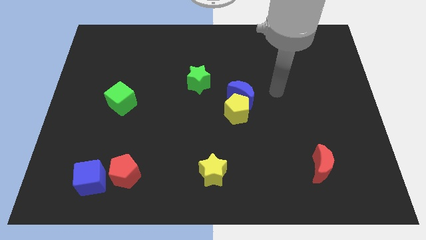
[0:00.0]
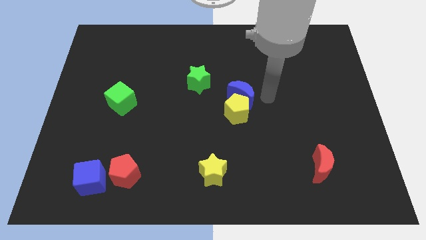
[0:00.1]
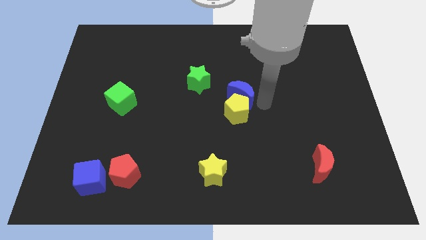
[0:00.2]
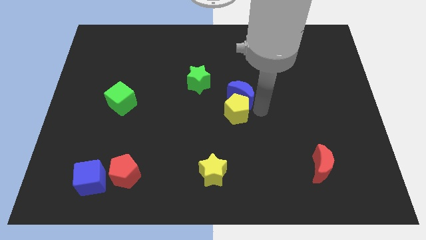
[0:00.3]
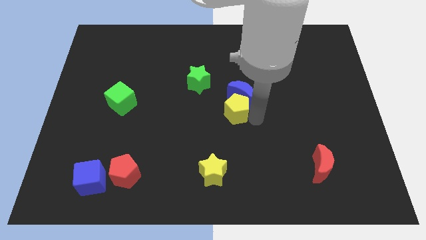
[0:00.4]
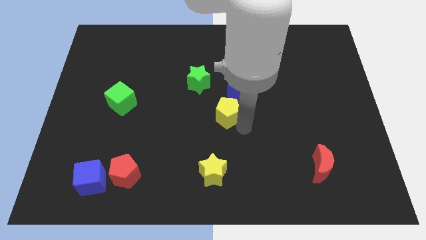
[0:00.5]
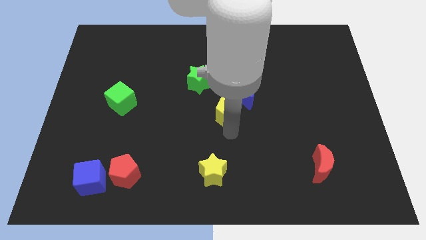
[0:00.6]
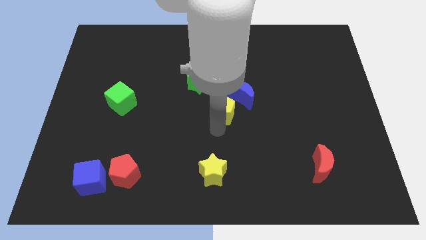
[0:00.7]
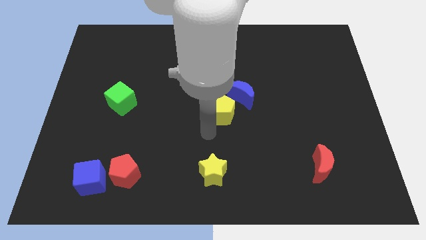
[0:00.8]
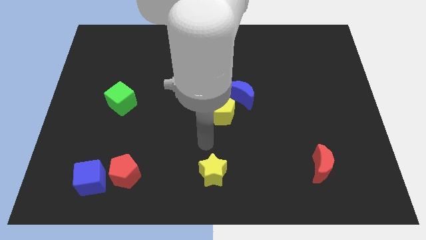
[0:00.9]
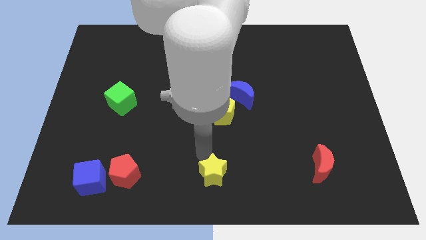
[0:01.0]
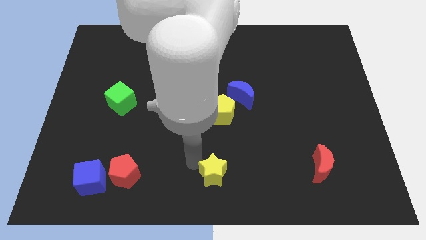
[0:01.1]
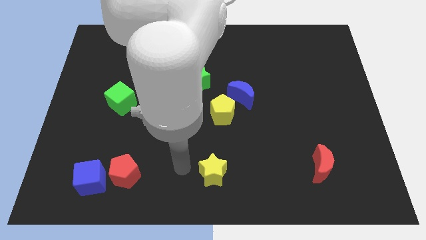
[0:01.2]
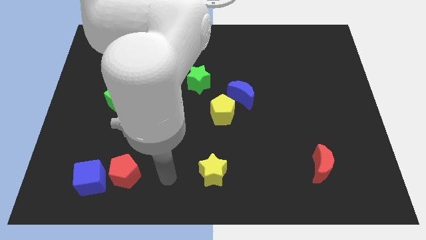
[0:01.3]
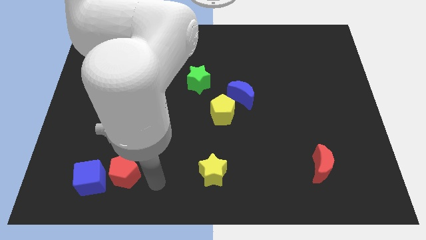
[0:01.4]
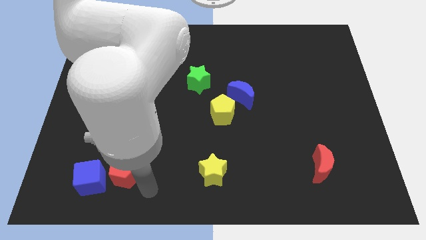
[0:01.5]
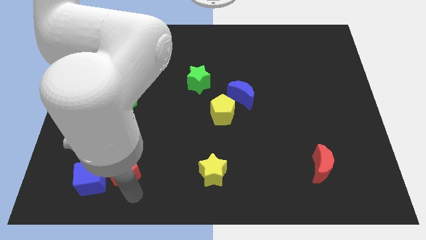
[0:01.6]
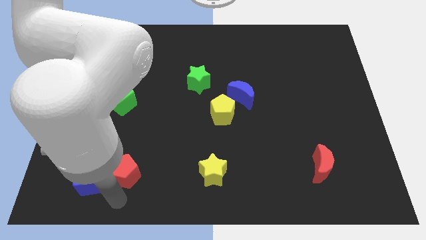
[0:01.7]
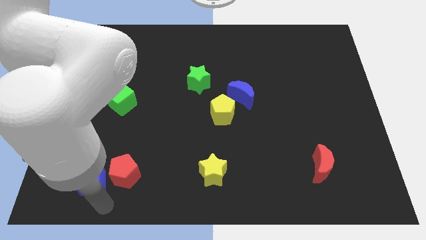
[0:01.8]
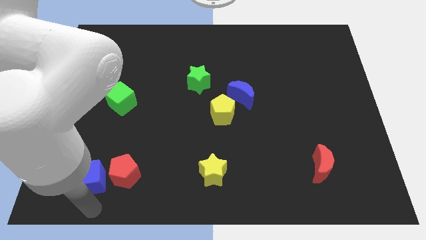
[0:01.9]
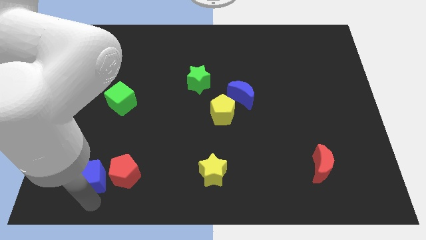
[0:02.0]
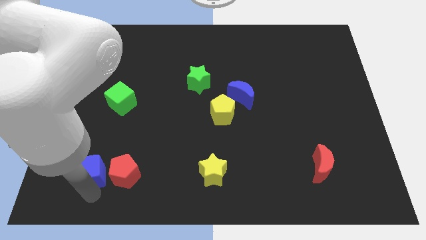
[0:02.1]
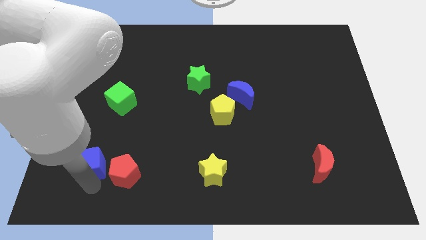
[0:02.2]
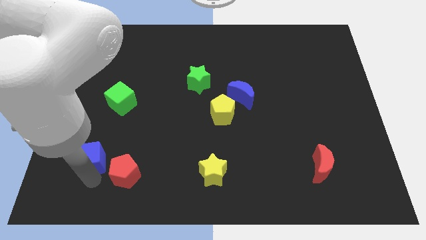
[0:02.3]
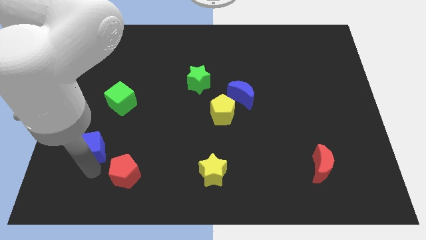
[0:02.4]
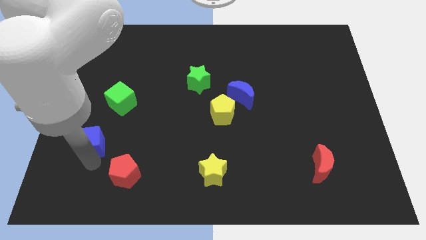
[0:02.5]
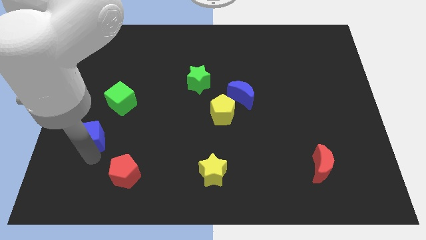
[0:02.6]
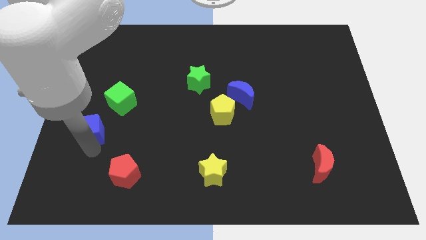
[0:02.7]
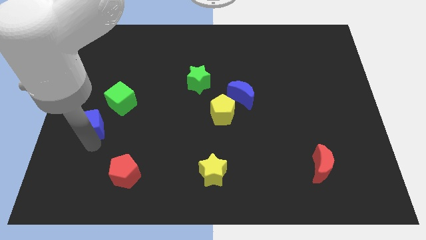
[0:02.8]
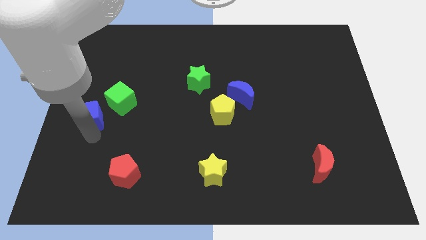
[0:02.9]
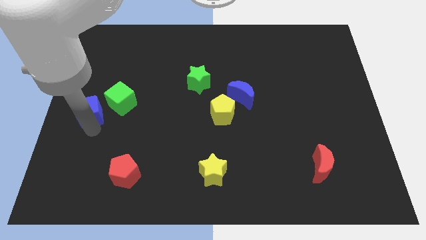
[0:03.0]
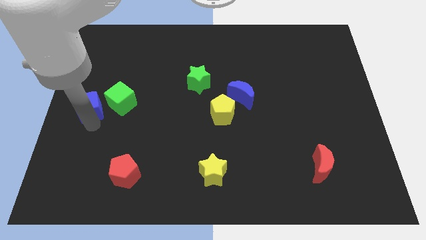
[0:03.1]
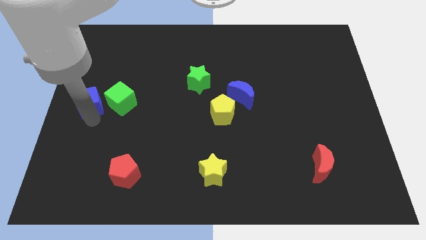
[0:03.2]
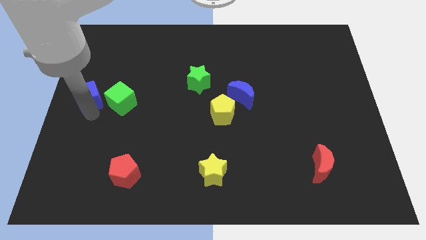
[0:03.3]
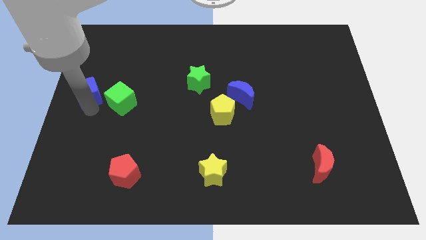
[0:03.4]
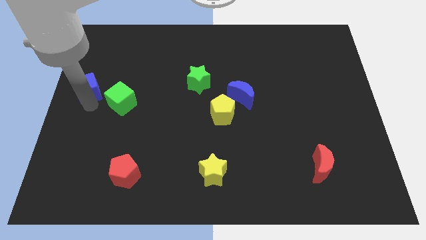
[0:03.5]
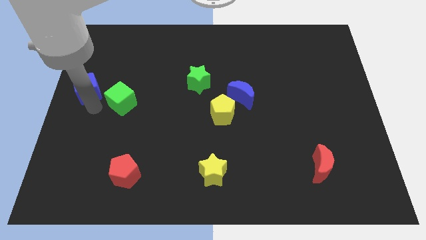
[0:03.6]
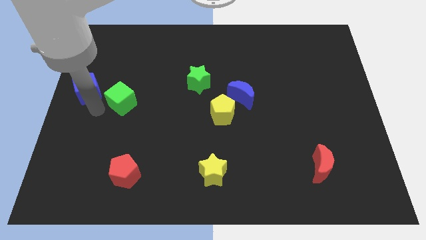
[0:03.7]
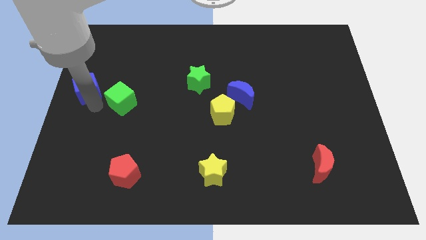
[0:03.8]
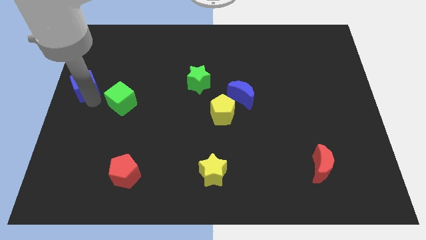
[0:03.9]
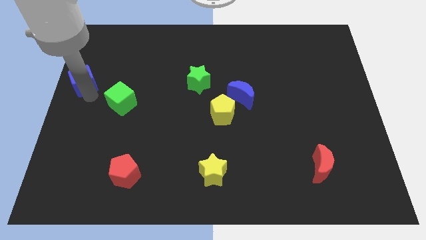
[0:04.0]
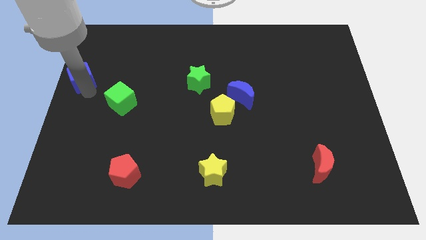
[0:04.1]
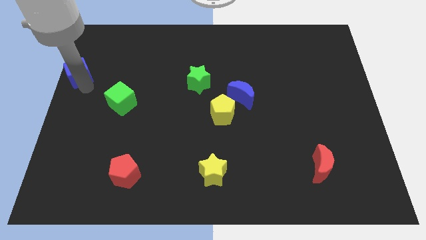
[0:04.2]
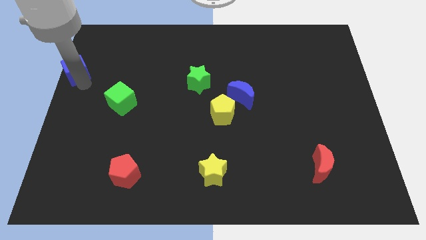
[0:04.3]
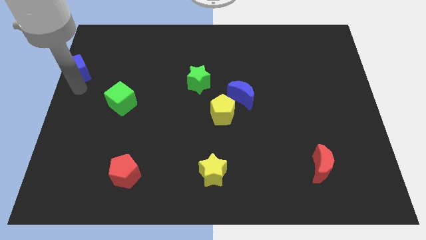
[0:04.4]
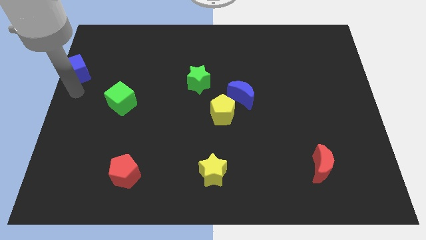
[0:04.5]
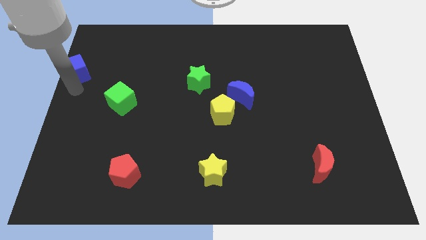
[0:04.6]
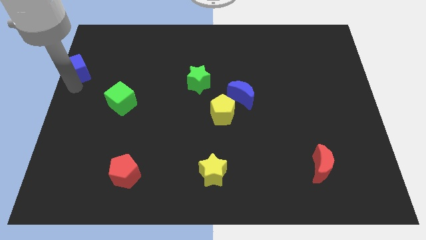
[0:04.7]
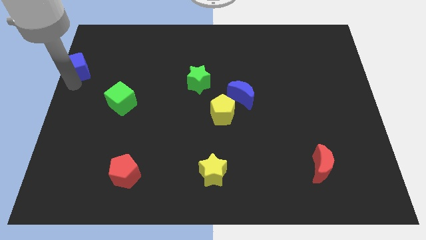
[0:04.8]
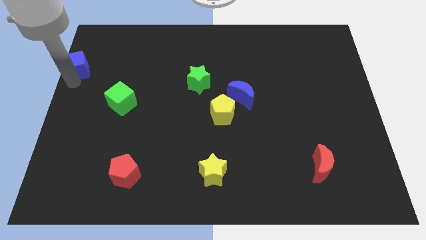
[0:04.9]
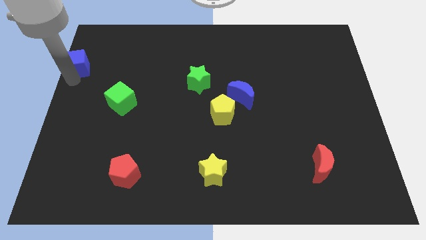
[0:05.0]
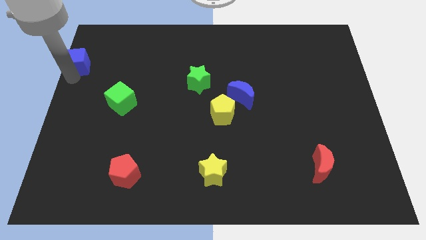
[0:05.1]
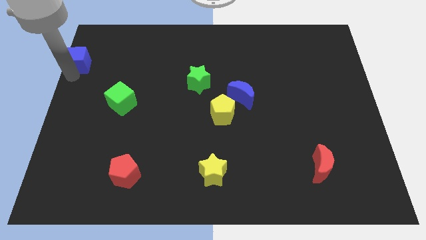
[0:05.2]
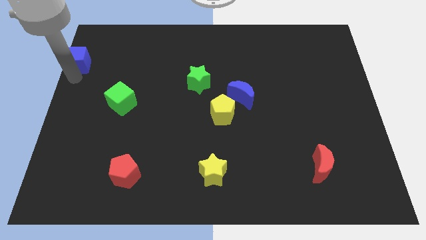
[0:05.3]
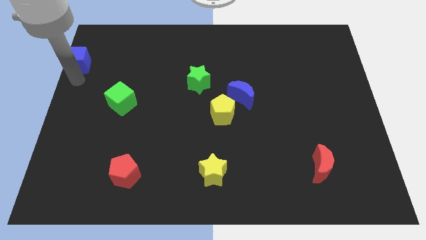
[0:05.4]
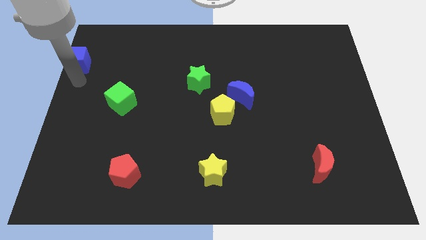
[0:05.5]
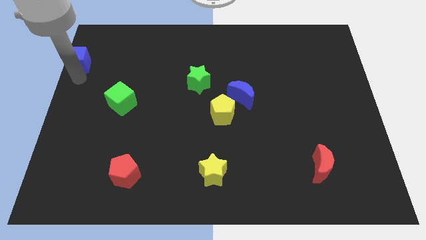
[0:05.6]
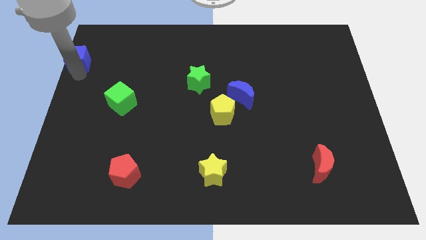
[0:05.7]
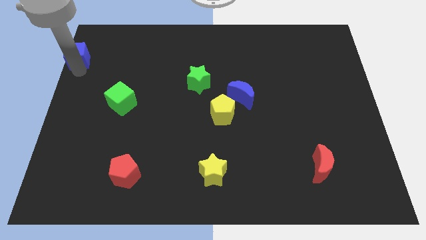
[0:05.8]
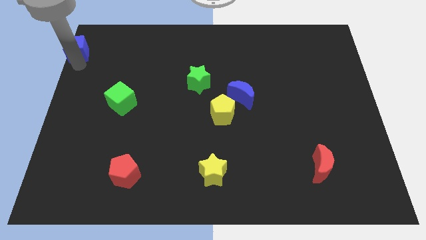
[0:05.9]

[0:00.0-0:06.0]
move the blue cube to the top left corner

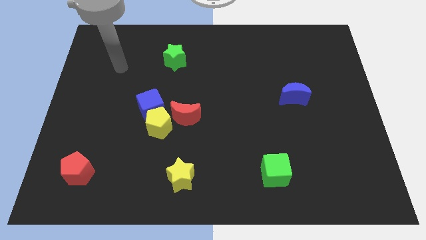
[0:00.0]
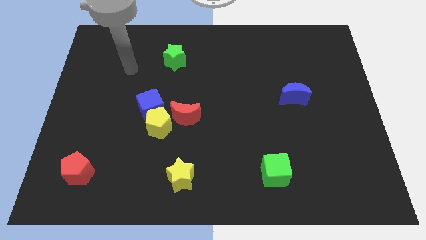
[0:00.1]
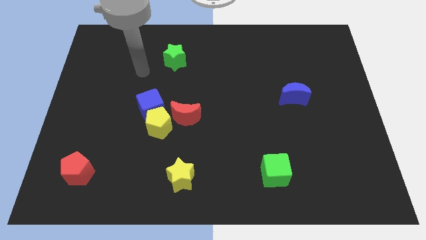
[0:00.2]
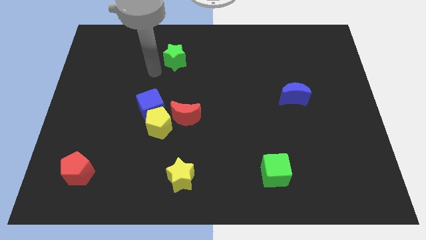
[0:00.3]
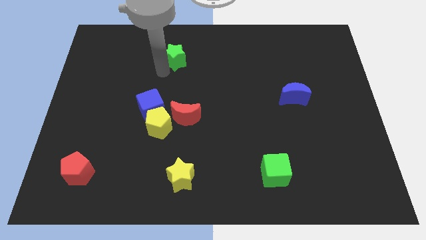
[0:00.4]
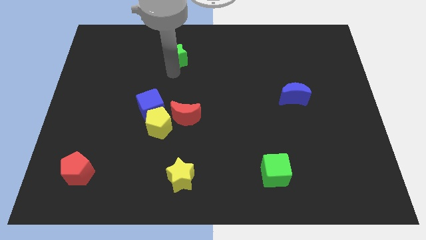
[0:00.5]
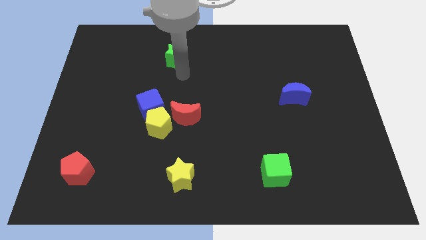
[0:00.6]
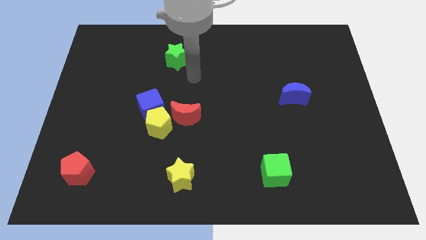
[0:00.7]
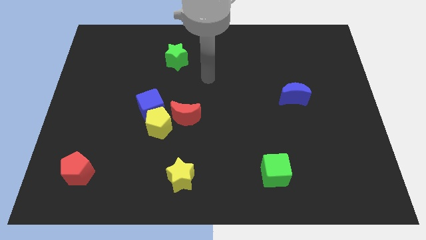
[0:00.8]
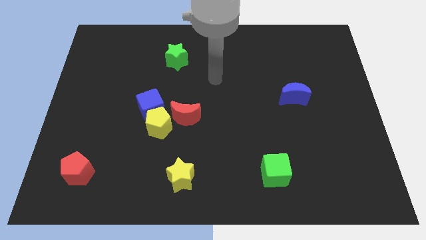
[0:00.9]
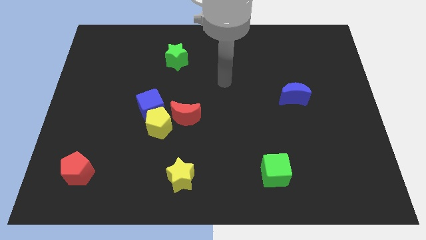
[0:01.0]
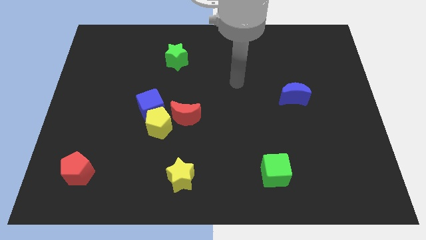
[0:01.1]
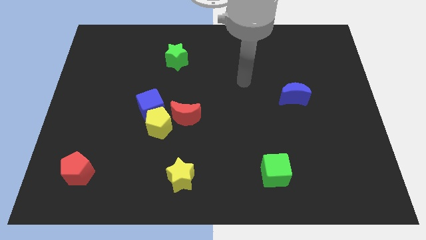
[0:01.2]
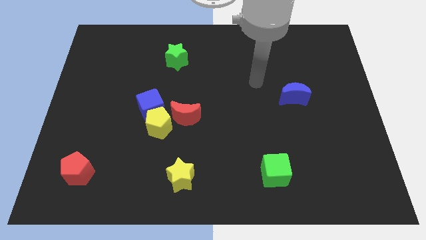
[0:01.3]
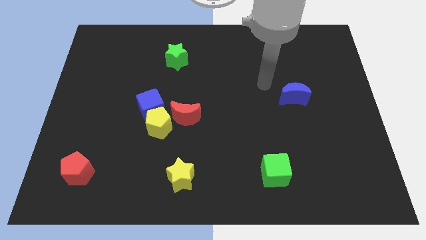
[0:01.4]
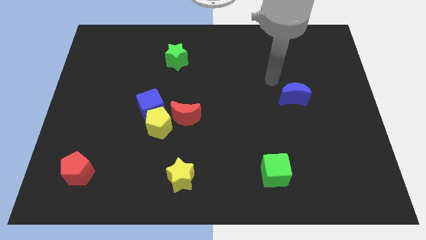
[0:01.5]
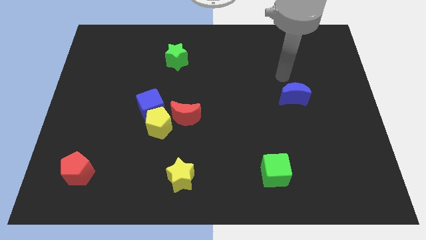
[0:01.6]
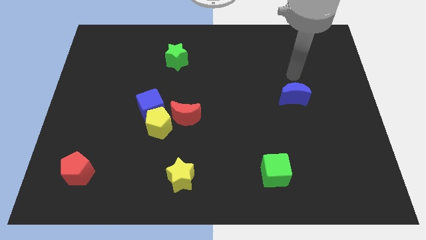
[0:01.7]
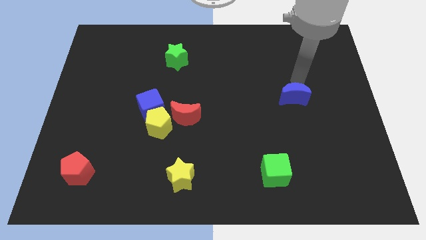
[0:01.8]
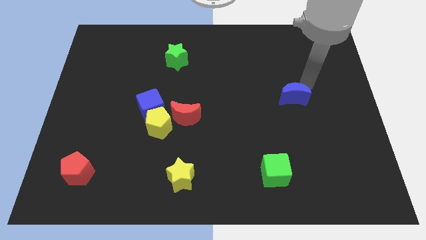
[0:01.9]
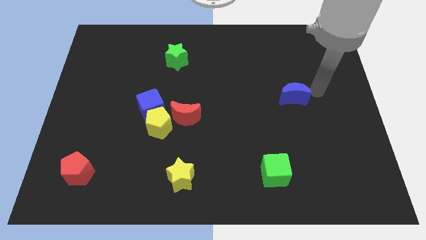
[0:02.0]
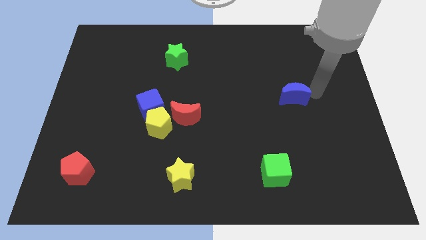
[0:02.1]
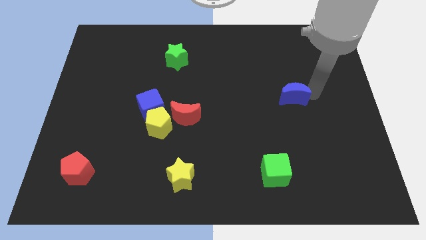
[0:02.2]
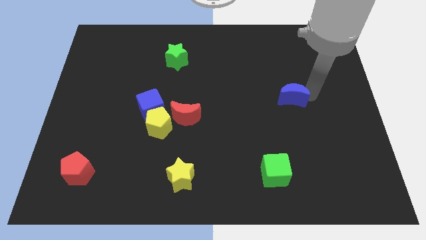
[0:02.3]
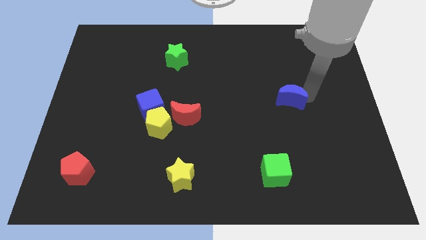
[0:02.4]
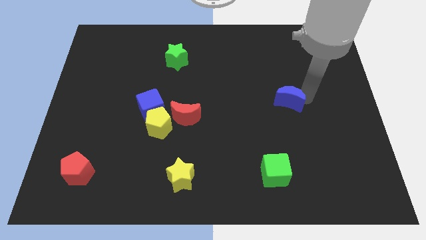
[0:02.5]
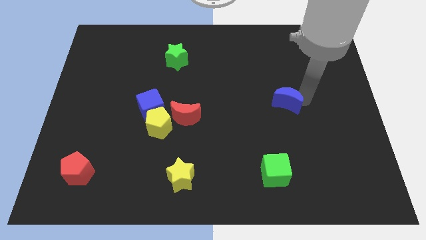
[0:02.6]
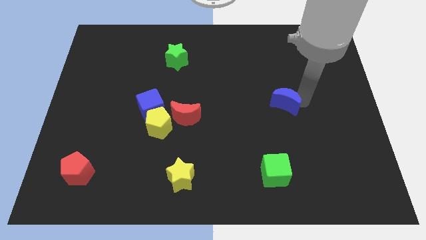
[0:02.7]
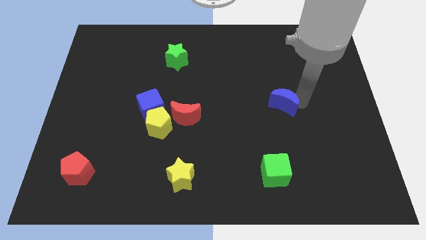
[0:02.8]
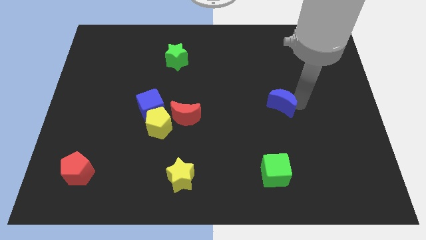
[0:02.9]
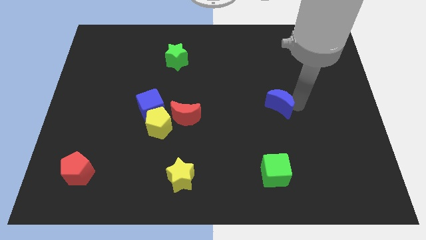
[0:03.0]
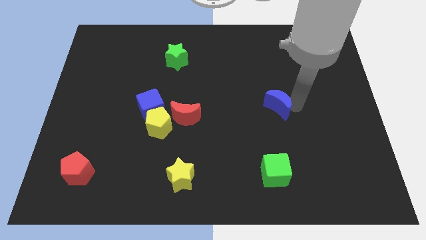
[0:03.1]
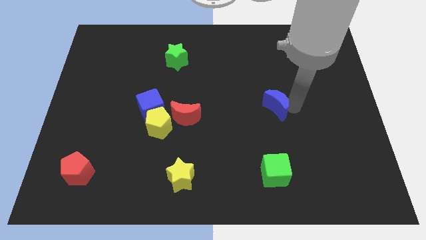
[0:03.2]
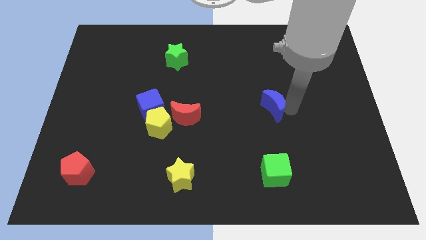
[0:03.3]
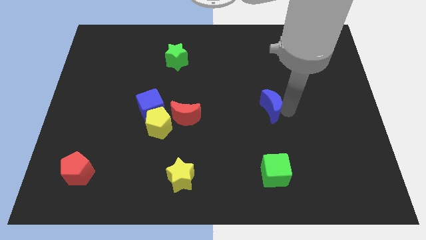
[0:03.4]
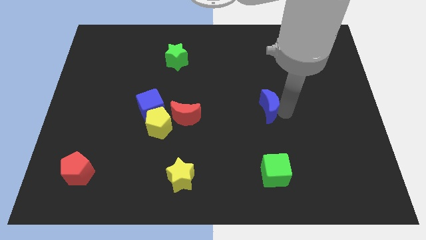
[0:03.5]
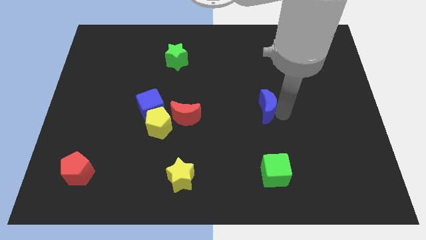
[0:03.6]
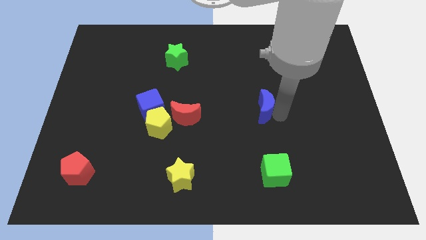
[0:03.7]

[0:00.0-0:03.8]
put the blue moon to the center of the board
